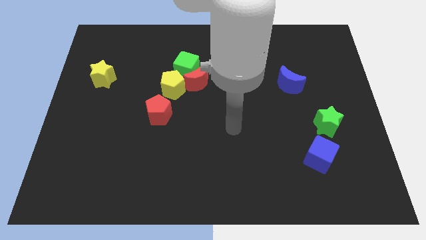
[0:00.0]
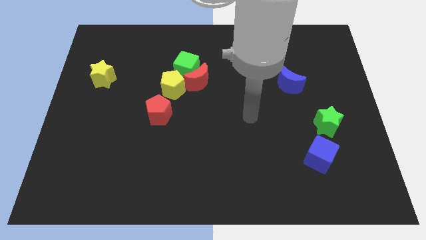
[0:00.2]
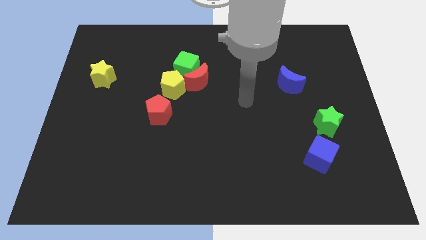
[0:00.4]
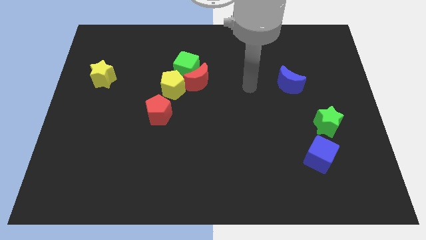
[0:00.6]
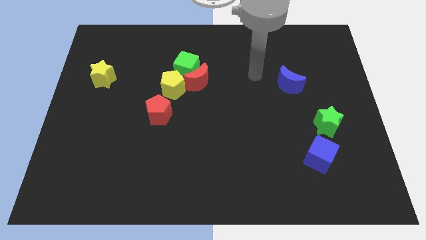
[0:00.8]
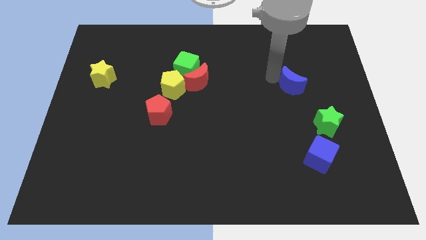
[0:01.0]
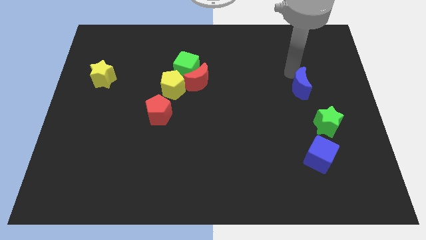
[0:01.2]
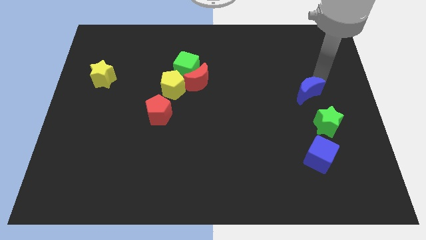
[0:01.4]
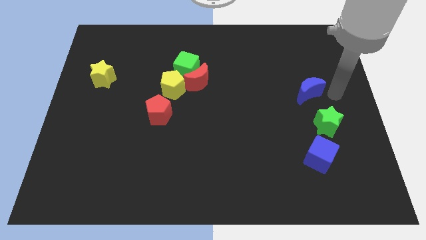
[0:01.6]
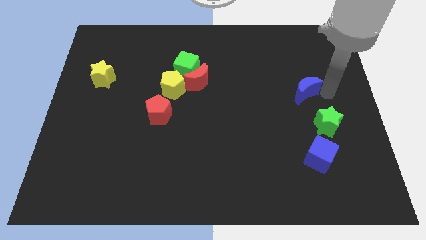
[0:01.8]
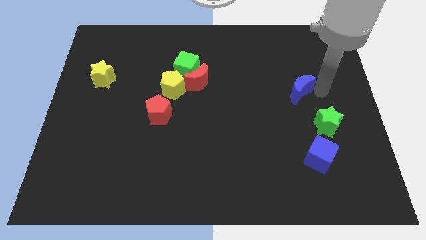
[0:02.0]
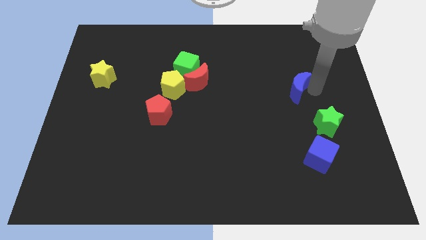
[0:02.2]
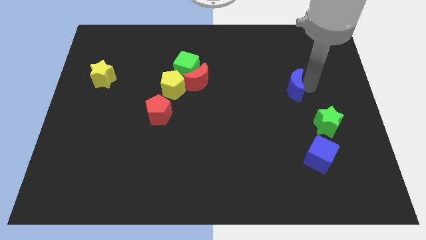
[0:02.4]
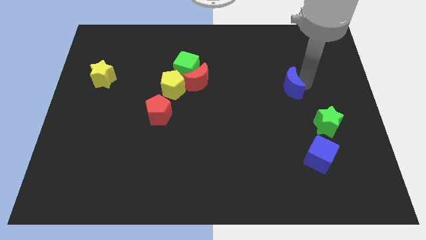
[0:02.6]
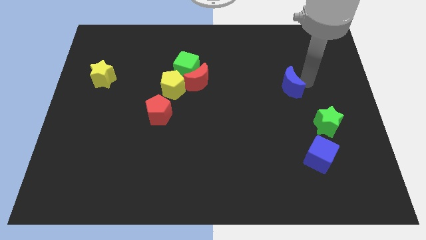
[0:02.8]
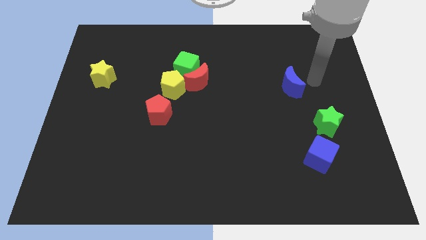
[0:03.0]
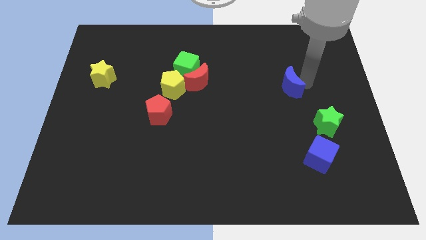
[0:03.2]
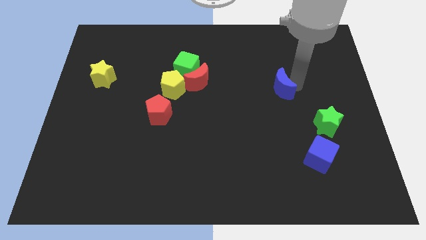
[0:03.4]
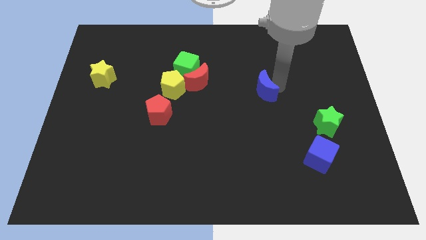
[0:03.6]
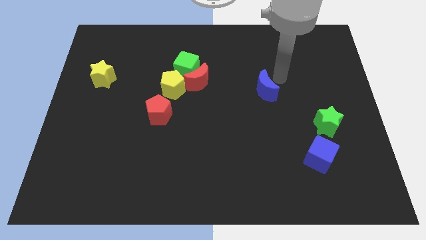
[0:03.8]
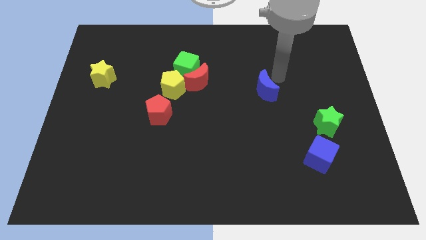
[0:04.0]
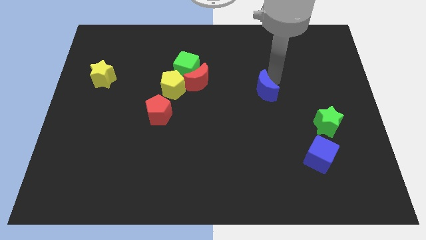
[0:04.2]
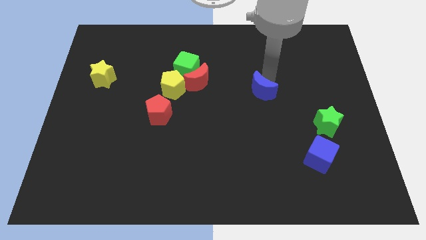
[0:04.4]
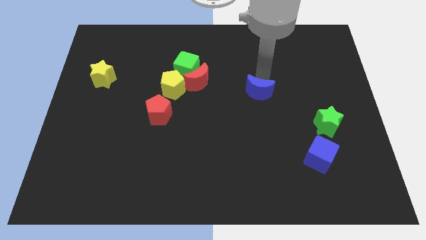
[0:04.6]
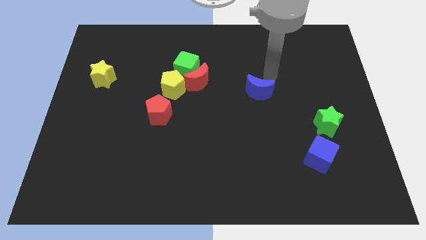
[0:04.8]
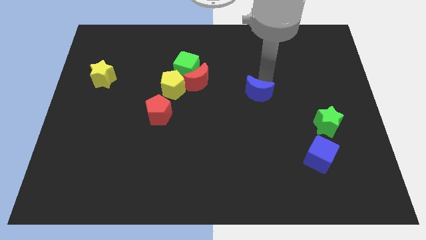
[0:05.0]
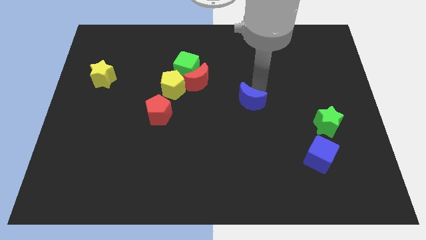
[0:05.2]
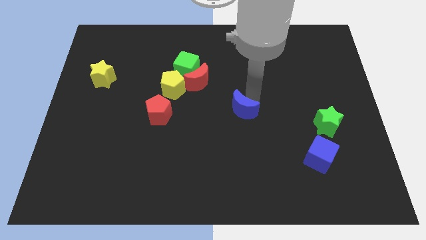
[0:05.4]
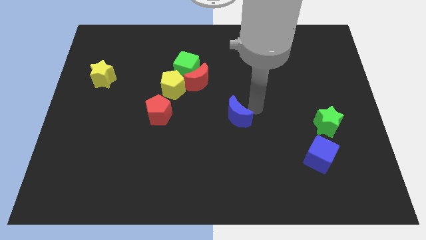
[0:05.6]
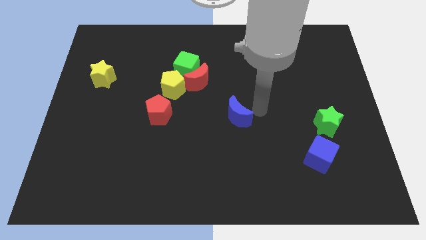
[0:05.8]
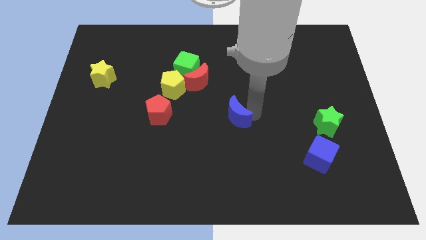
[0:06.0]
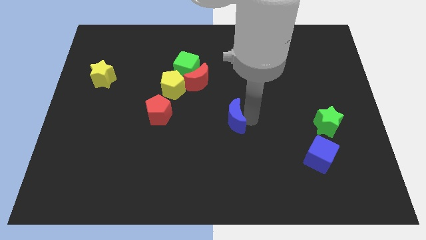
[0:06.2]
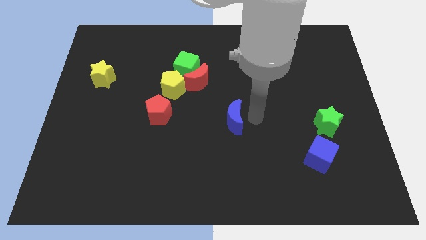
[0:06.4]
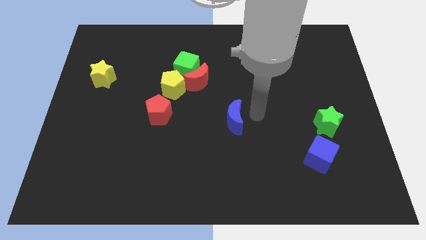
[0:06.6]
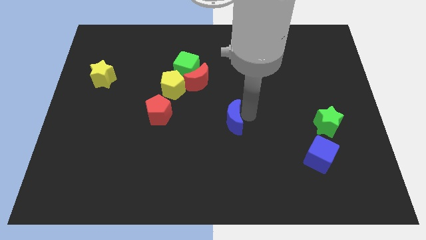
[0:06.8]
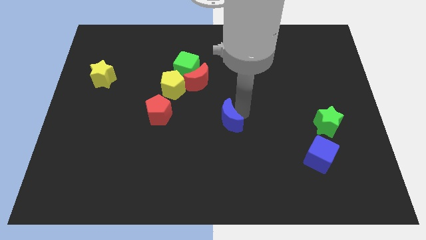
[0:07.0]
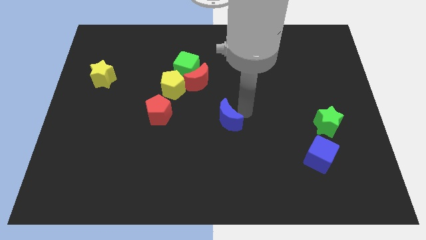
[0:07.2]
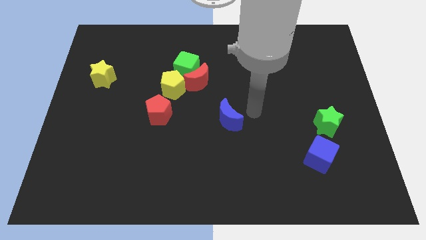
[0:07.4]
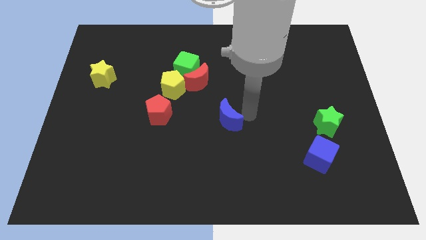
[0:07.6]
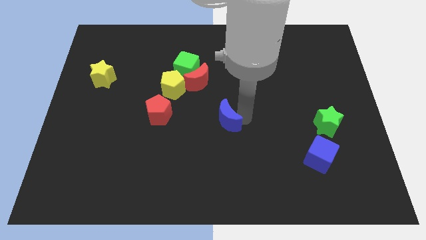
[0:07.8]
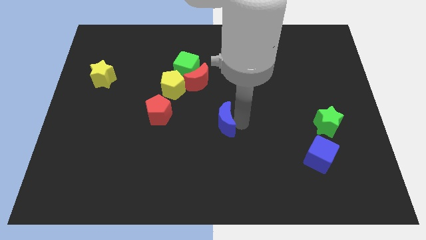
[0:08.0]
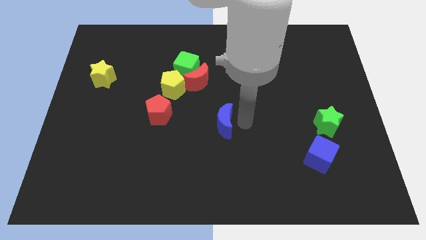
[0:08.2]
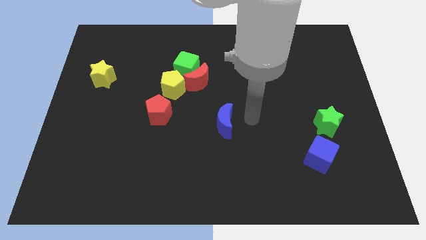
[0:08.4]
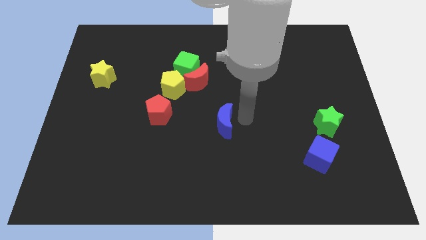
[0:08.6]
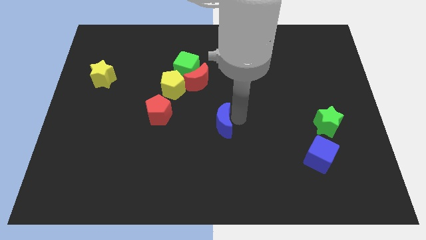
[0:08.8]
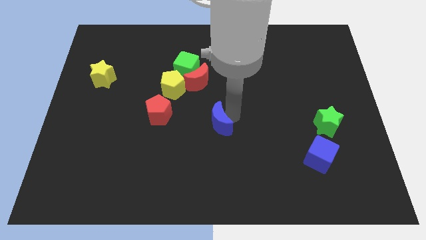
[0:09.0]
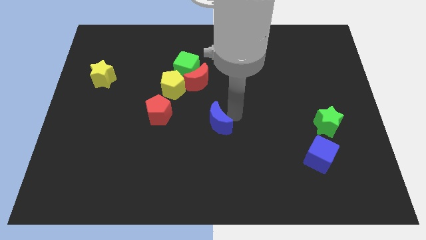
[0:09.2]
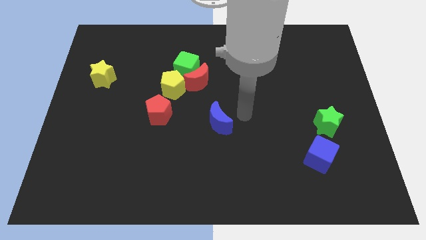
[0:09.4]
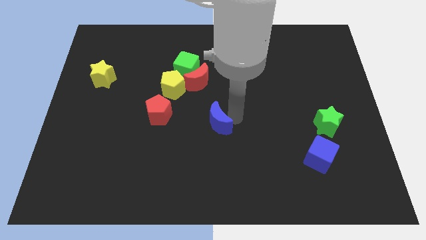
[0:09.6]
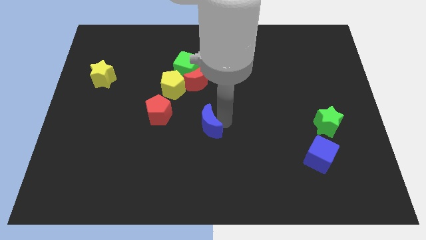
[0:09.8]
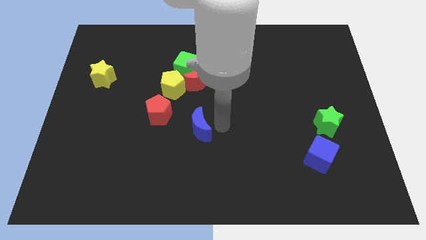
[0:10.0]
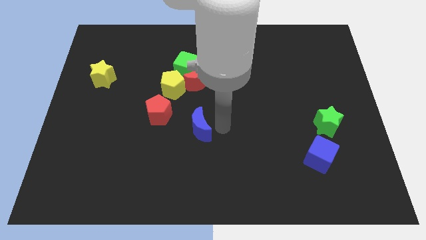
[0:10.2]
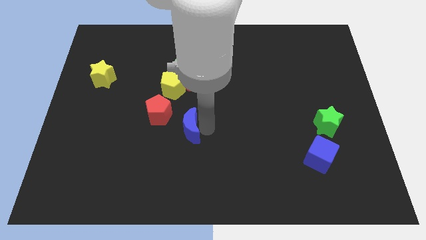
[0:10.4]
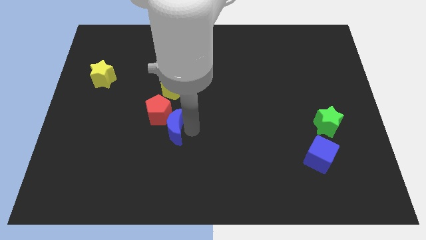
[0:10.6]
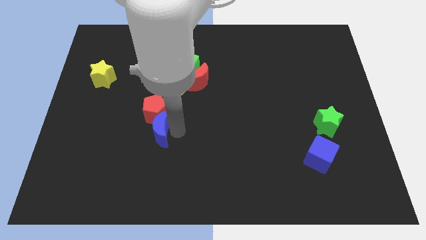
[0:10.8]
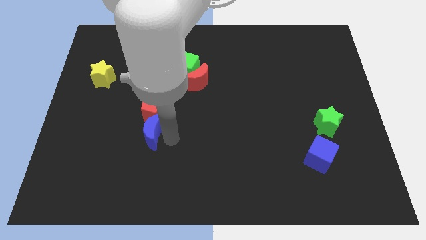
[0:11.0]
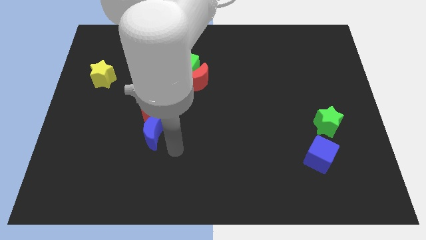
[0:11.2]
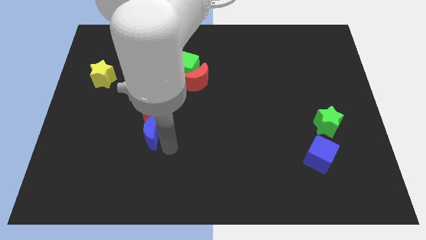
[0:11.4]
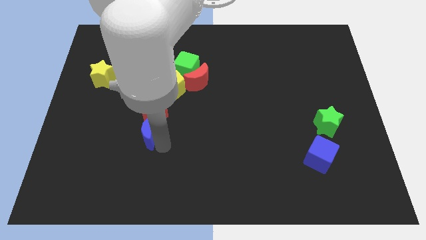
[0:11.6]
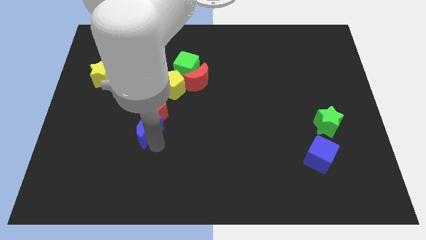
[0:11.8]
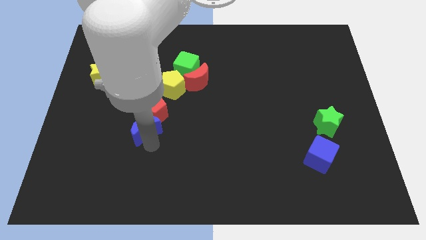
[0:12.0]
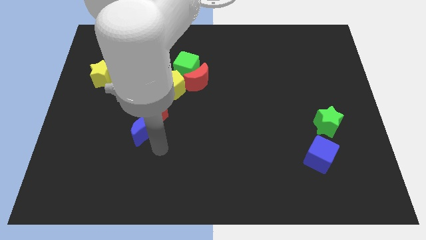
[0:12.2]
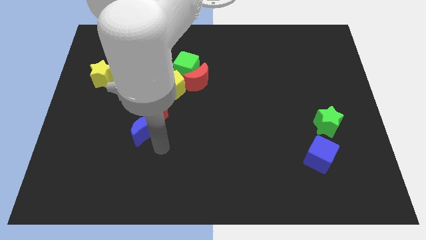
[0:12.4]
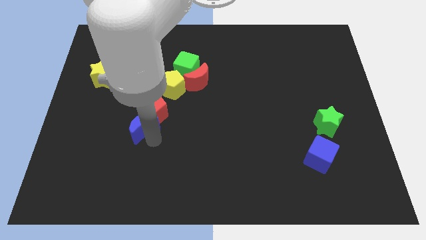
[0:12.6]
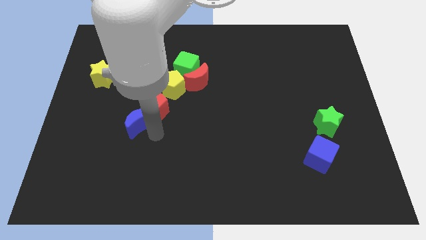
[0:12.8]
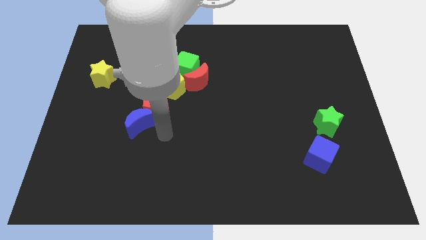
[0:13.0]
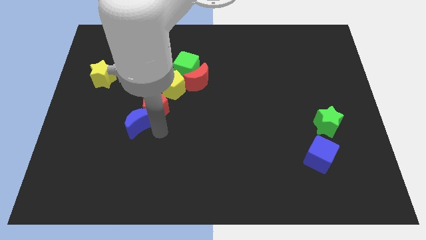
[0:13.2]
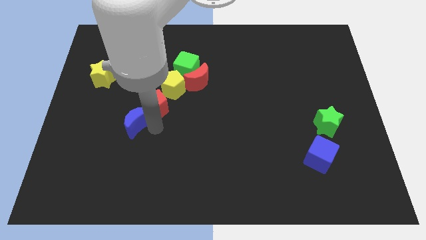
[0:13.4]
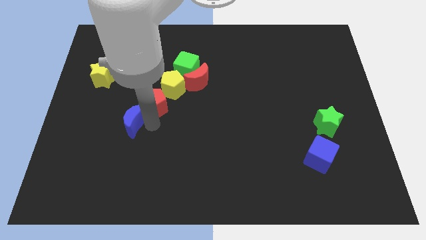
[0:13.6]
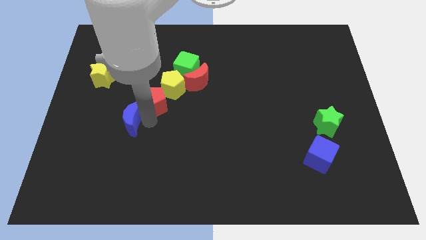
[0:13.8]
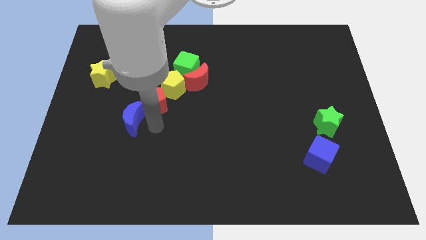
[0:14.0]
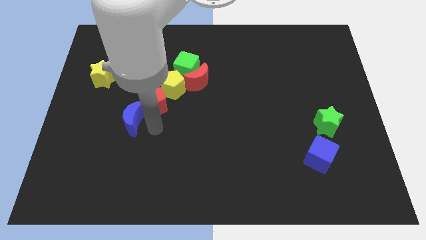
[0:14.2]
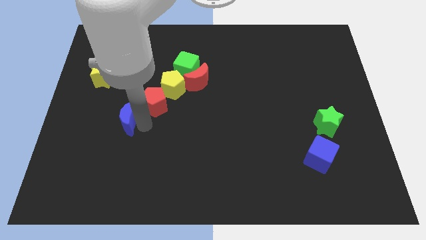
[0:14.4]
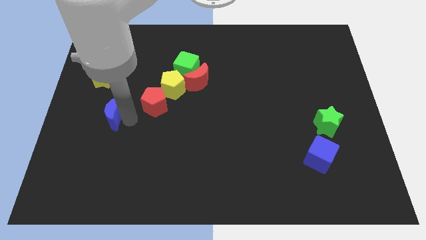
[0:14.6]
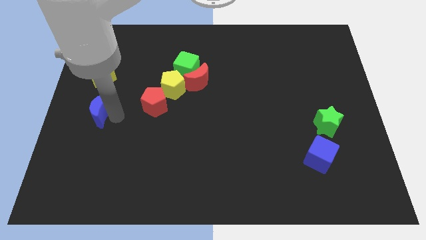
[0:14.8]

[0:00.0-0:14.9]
move the blue moon to the left side
